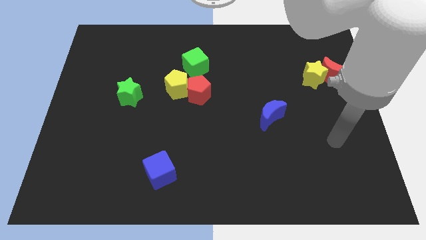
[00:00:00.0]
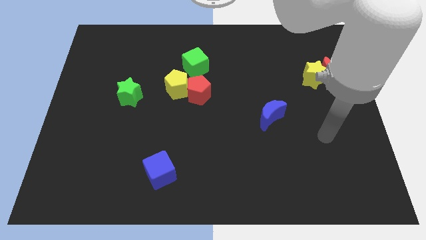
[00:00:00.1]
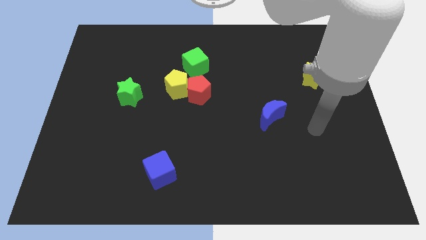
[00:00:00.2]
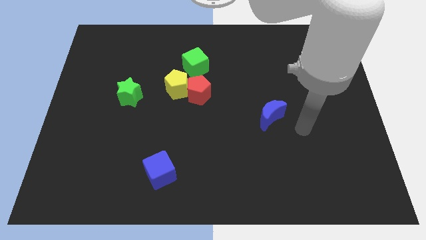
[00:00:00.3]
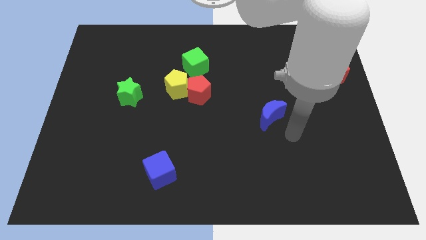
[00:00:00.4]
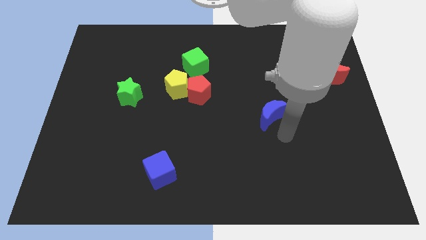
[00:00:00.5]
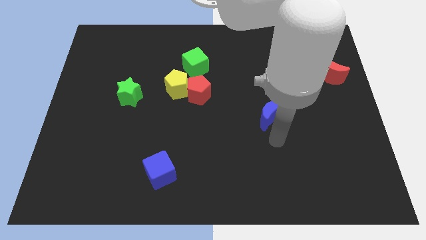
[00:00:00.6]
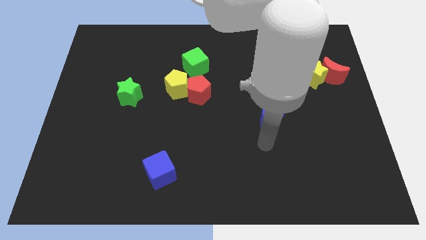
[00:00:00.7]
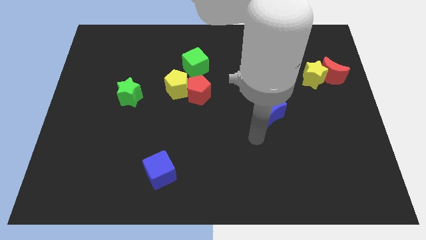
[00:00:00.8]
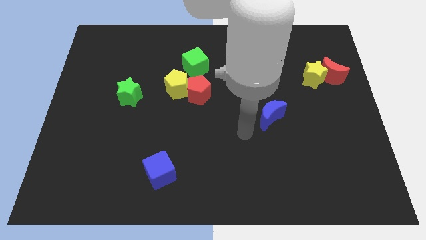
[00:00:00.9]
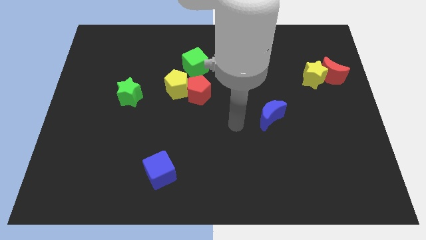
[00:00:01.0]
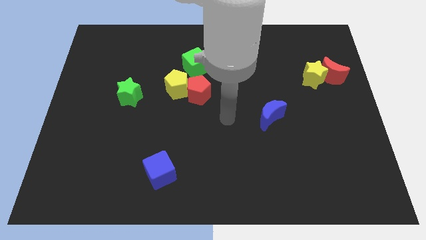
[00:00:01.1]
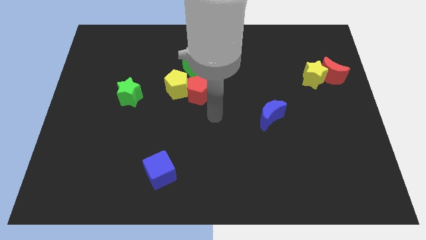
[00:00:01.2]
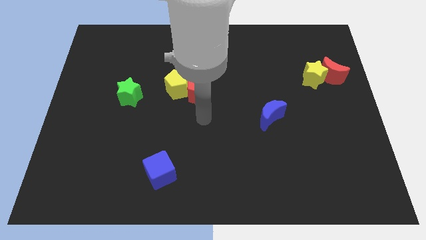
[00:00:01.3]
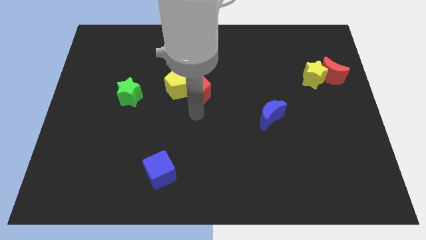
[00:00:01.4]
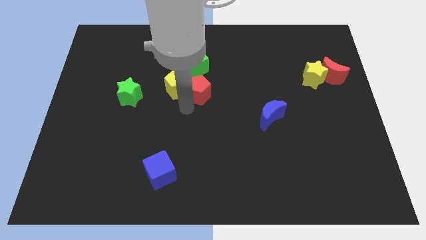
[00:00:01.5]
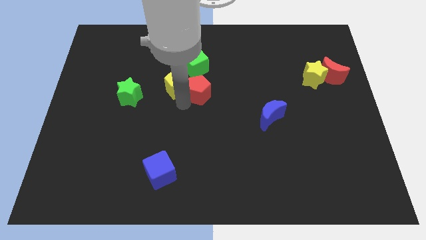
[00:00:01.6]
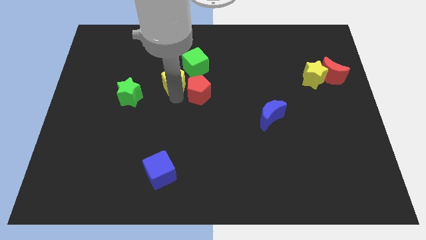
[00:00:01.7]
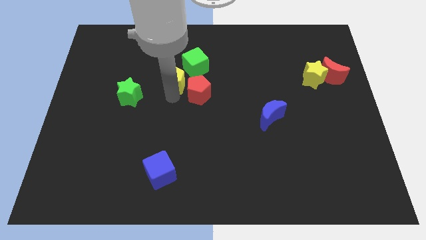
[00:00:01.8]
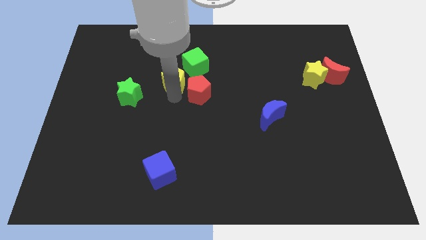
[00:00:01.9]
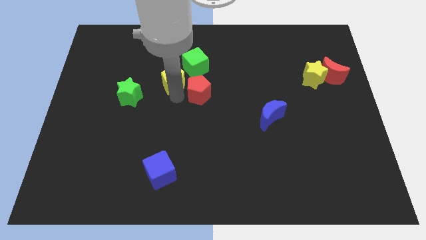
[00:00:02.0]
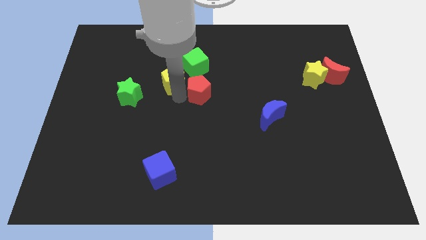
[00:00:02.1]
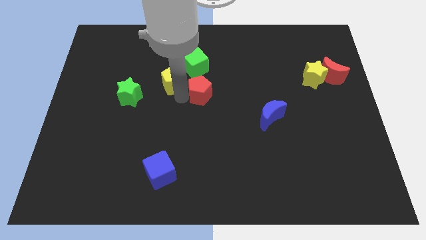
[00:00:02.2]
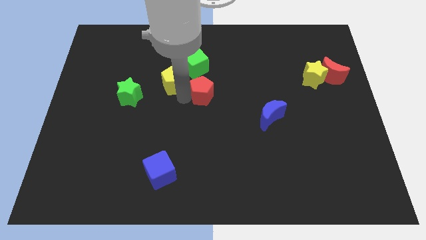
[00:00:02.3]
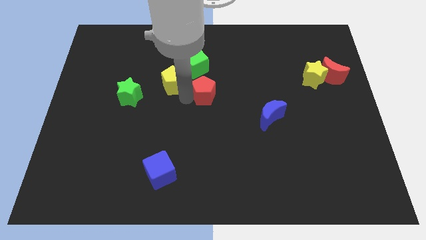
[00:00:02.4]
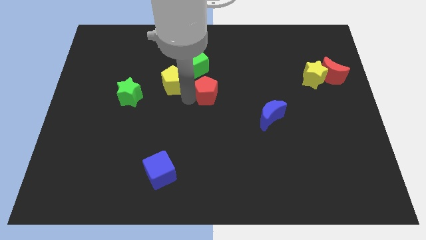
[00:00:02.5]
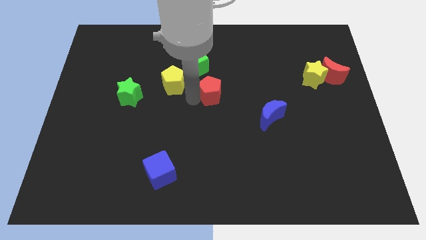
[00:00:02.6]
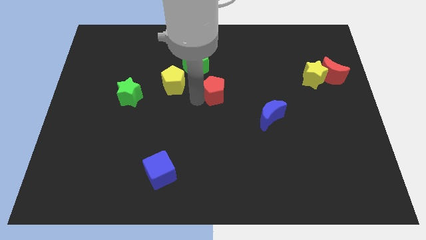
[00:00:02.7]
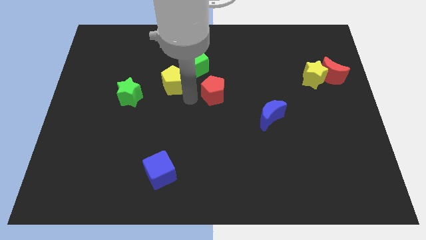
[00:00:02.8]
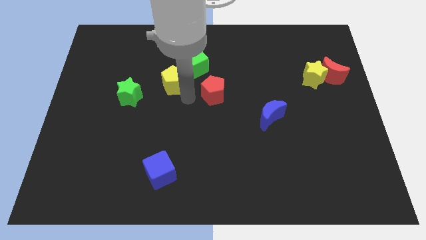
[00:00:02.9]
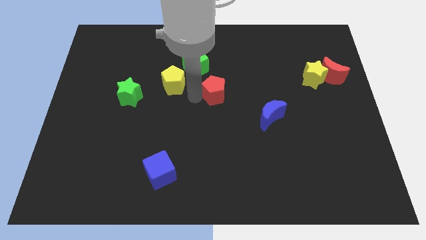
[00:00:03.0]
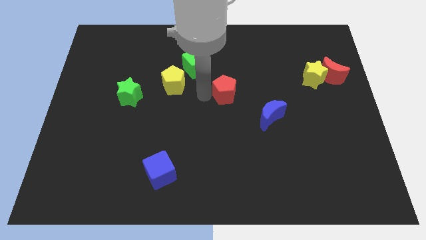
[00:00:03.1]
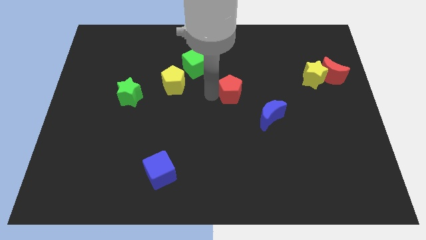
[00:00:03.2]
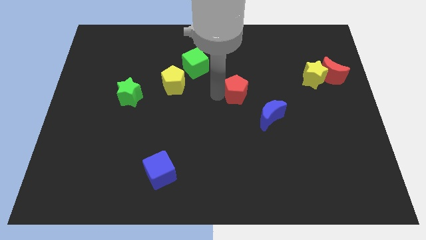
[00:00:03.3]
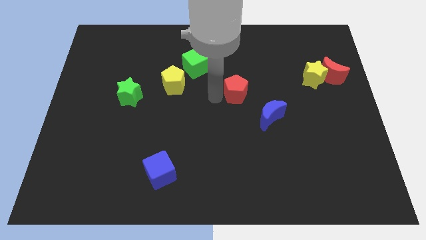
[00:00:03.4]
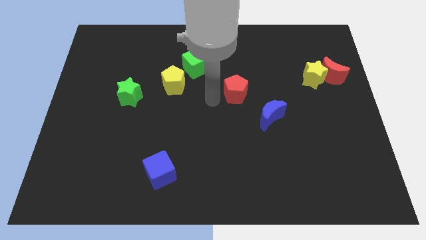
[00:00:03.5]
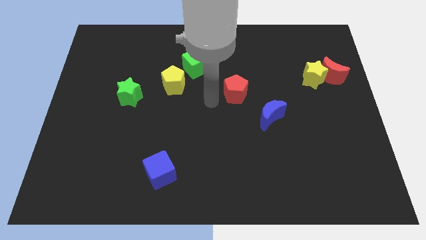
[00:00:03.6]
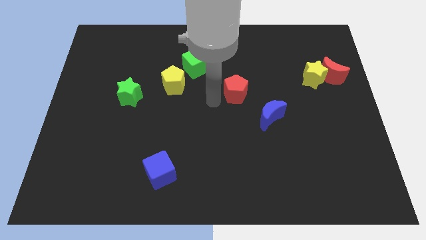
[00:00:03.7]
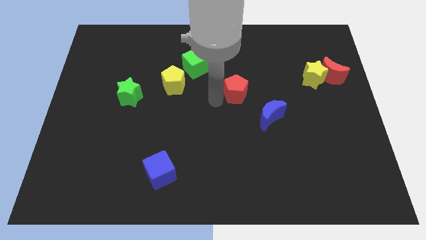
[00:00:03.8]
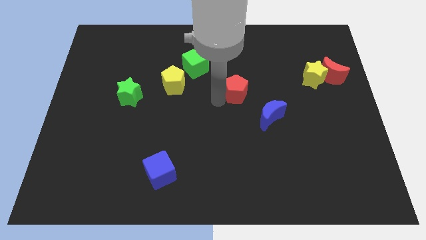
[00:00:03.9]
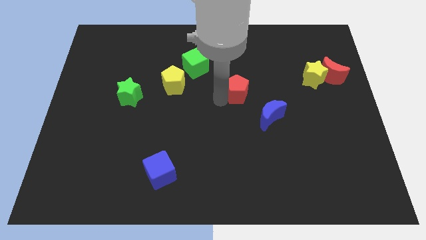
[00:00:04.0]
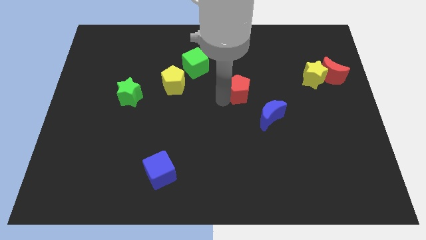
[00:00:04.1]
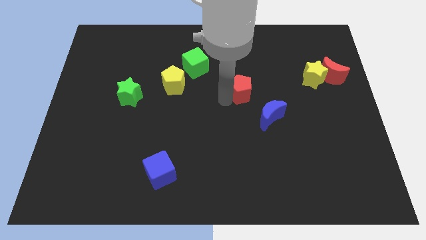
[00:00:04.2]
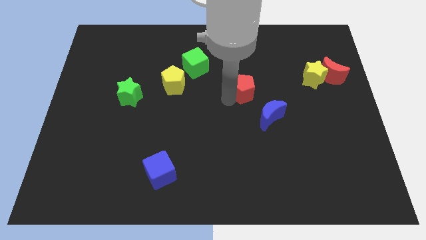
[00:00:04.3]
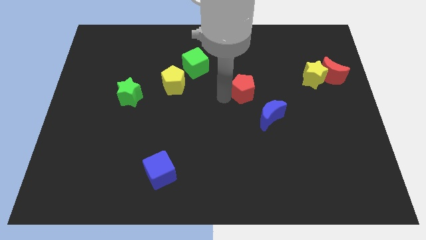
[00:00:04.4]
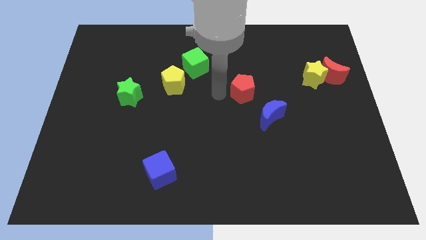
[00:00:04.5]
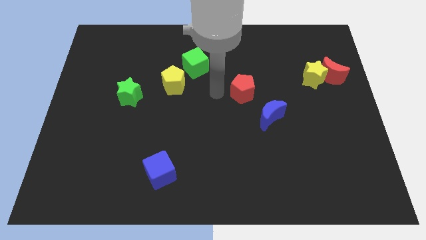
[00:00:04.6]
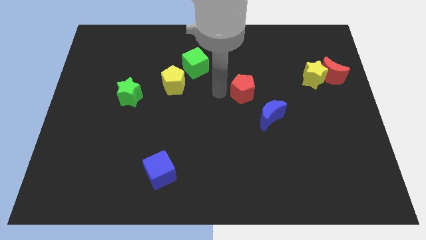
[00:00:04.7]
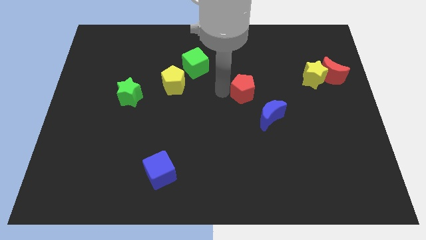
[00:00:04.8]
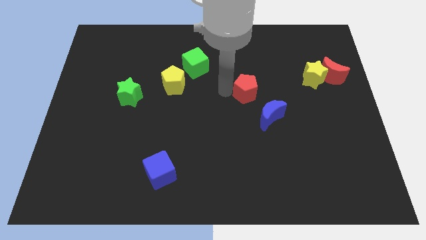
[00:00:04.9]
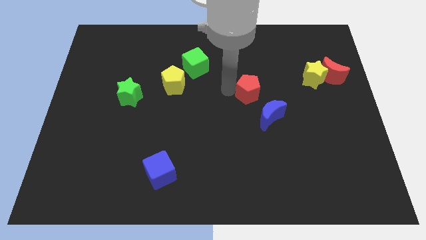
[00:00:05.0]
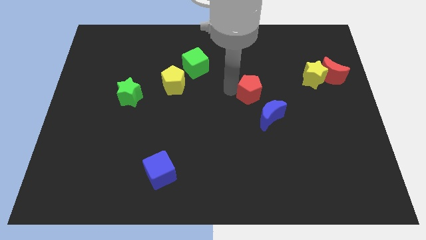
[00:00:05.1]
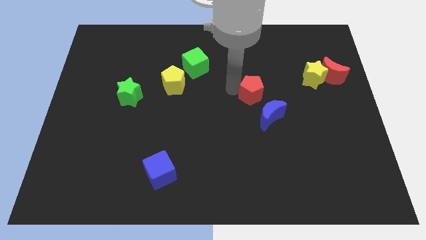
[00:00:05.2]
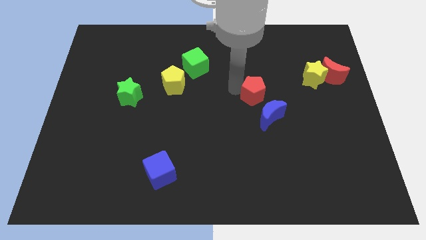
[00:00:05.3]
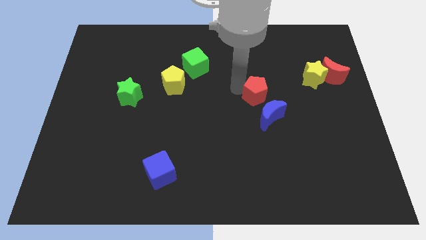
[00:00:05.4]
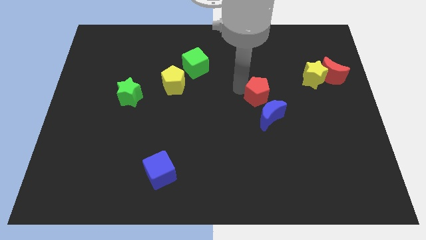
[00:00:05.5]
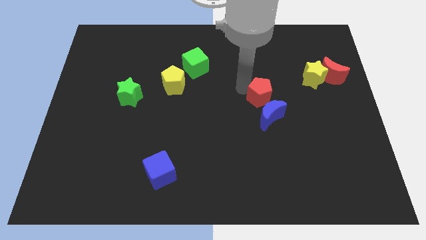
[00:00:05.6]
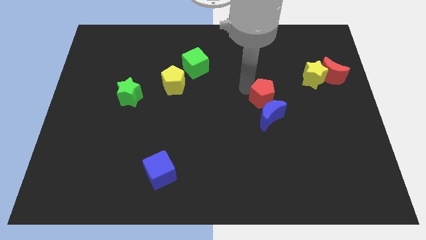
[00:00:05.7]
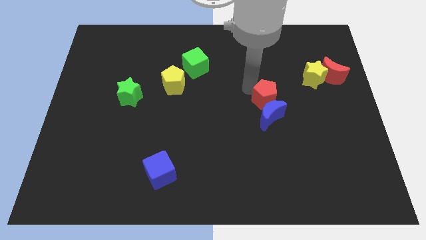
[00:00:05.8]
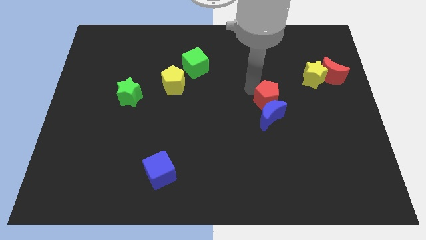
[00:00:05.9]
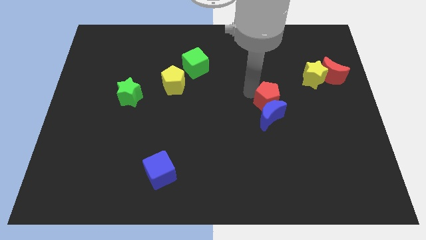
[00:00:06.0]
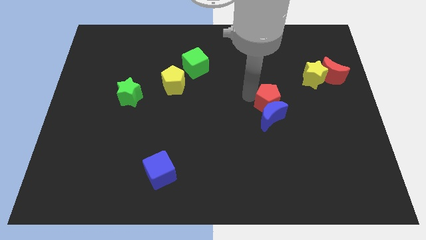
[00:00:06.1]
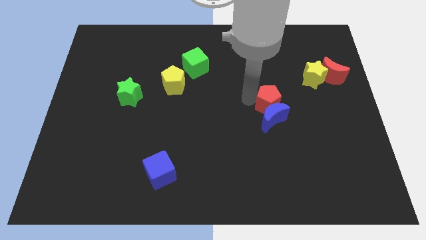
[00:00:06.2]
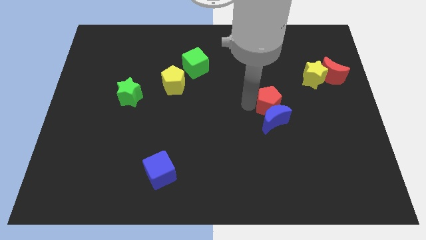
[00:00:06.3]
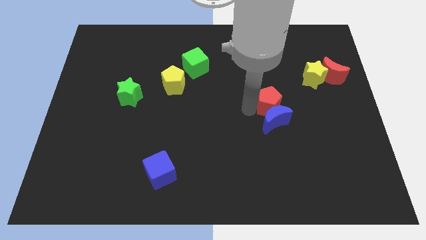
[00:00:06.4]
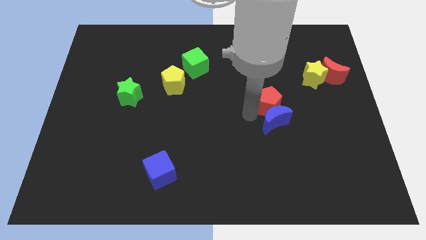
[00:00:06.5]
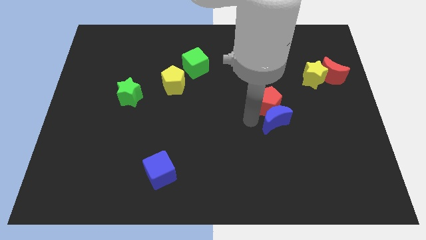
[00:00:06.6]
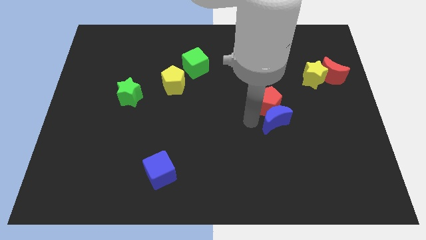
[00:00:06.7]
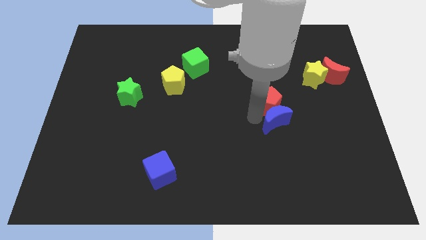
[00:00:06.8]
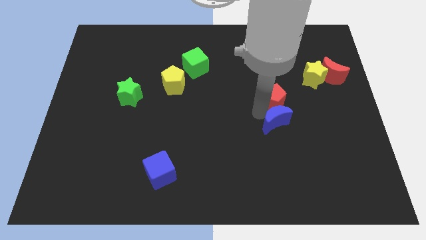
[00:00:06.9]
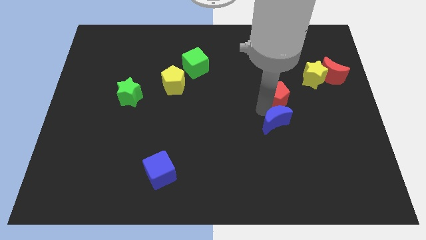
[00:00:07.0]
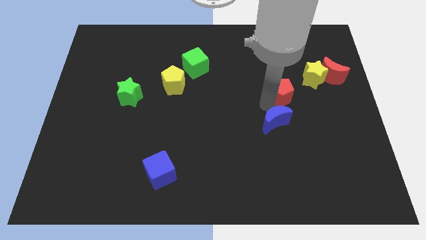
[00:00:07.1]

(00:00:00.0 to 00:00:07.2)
push the red pentagon to the right

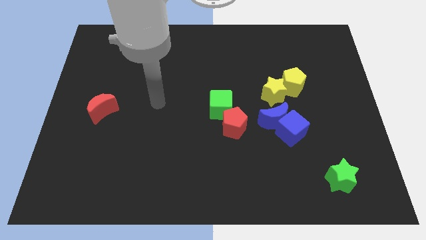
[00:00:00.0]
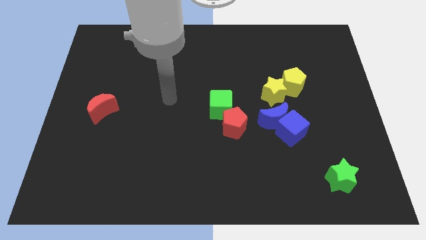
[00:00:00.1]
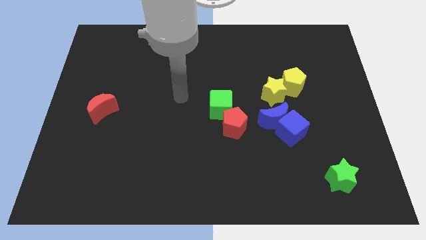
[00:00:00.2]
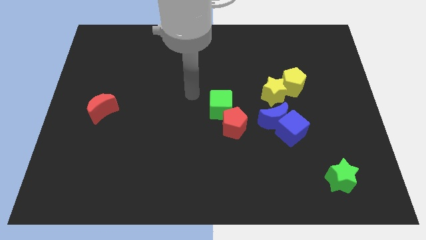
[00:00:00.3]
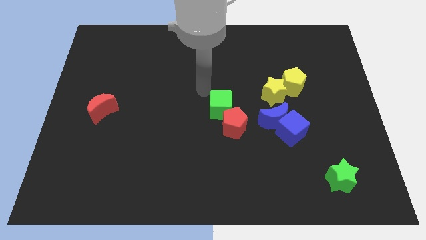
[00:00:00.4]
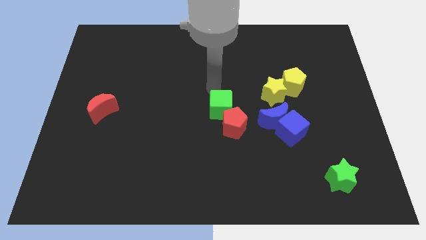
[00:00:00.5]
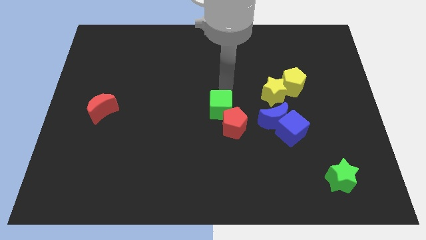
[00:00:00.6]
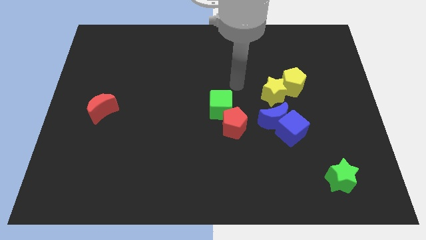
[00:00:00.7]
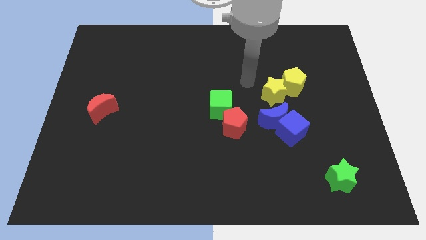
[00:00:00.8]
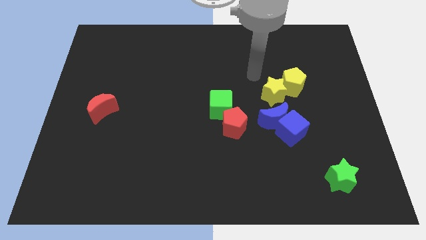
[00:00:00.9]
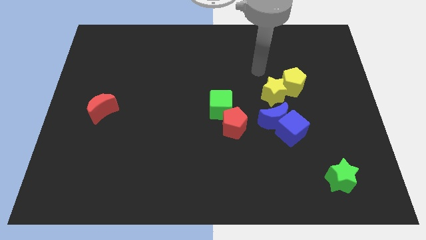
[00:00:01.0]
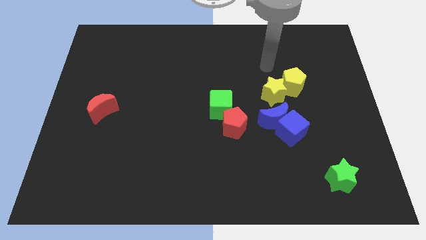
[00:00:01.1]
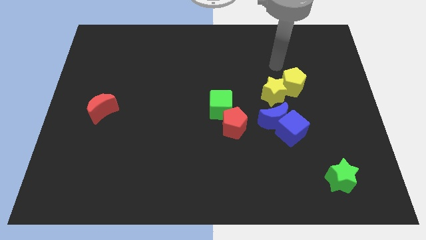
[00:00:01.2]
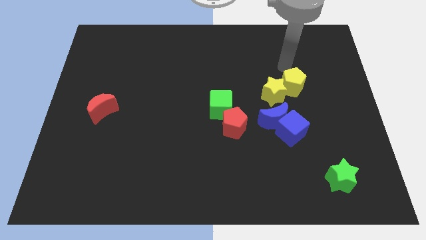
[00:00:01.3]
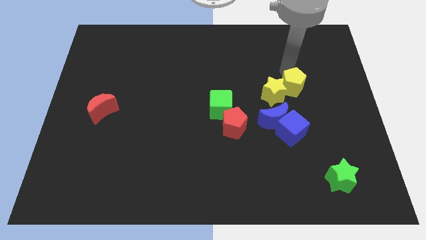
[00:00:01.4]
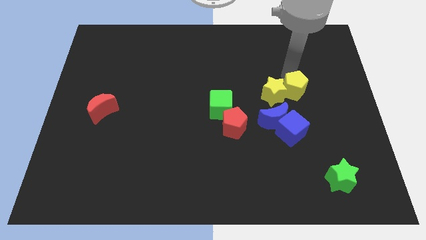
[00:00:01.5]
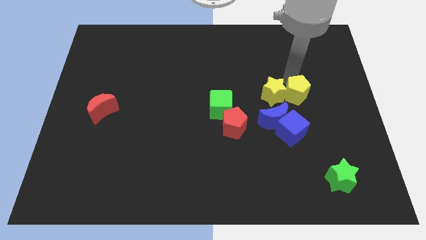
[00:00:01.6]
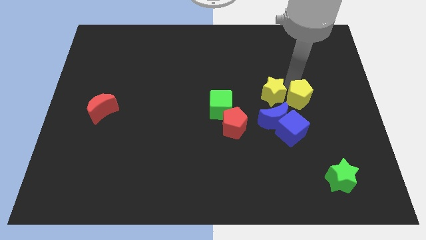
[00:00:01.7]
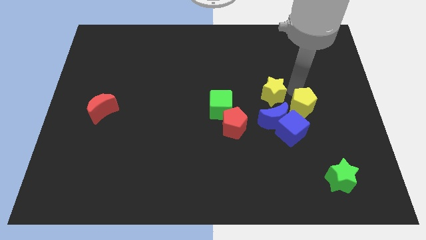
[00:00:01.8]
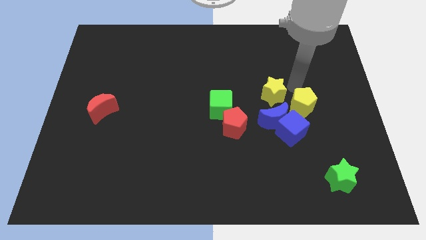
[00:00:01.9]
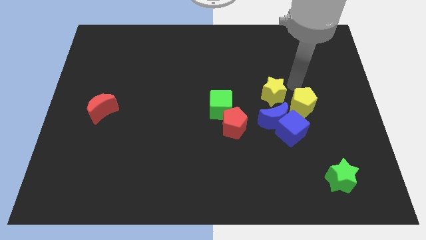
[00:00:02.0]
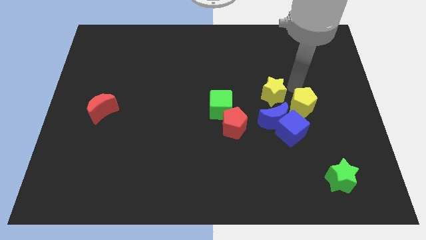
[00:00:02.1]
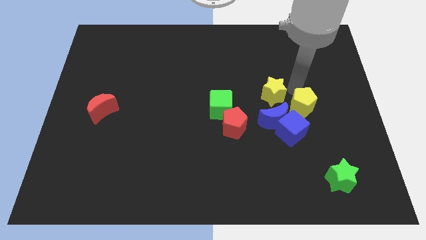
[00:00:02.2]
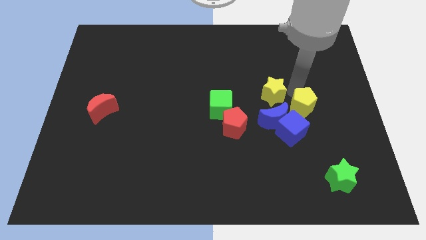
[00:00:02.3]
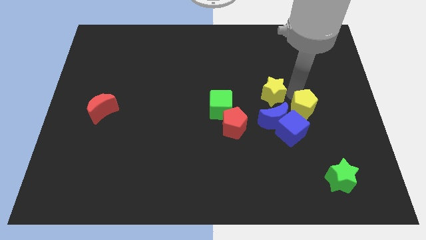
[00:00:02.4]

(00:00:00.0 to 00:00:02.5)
slide the yellow pentagon somewhat downwards
